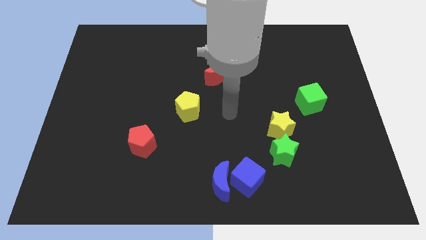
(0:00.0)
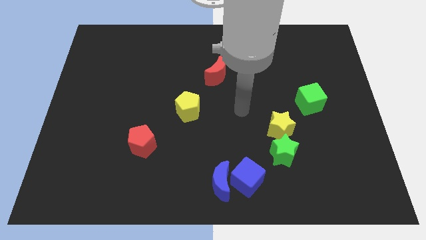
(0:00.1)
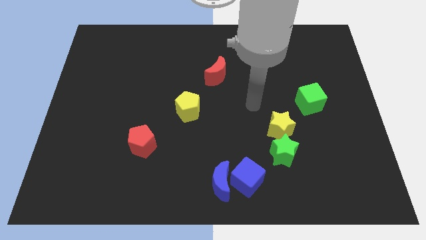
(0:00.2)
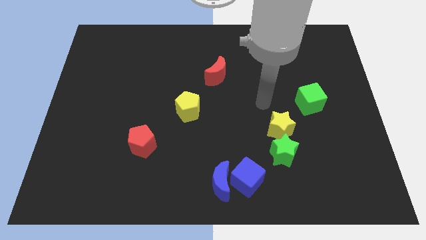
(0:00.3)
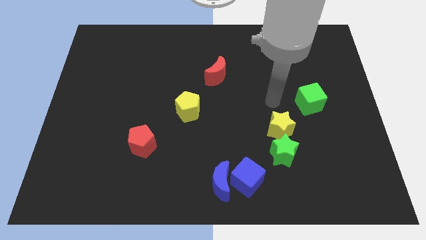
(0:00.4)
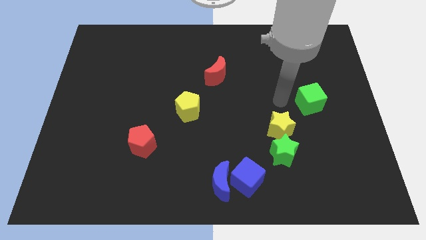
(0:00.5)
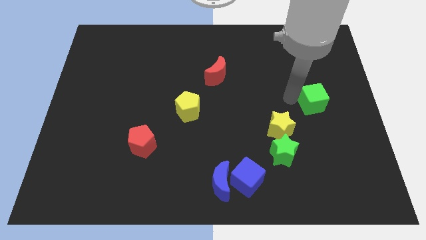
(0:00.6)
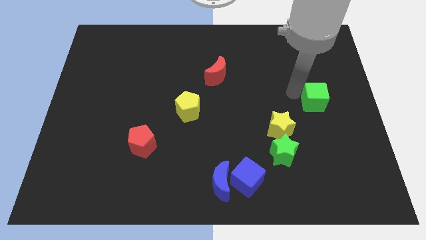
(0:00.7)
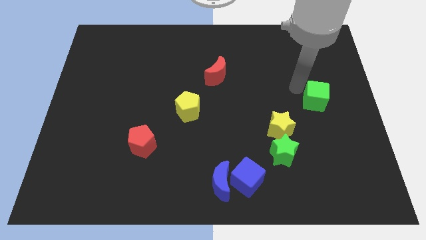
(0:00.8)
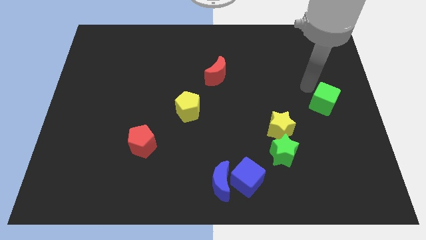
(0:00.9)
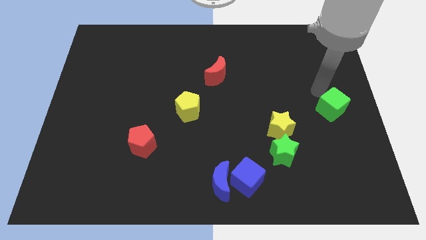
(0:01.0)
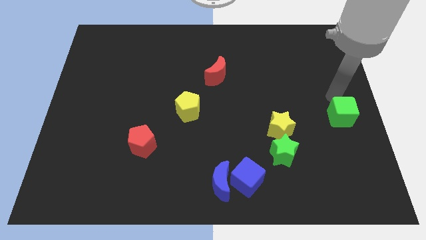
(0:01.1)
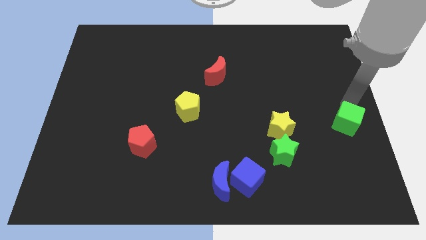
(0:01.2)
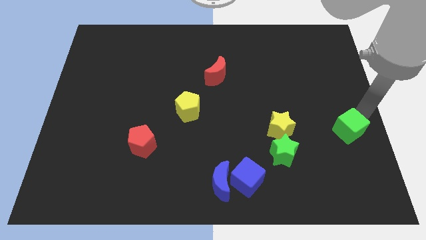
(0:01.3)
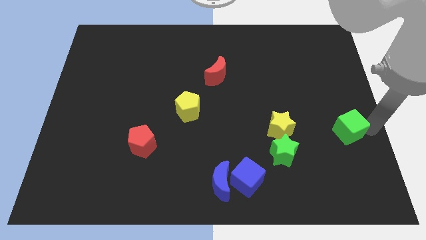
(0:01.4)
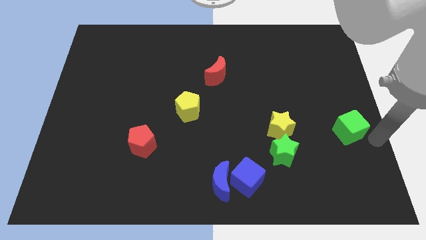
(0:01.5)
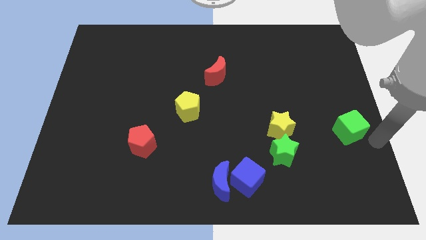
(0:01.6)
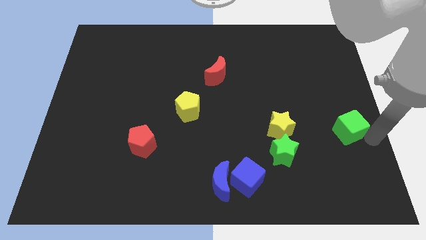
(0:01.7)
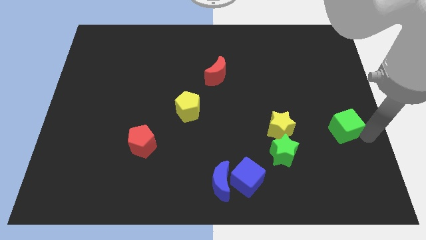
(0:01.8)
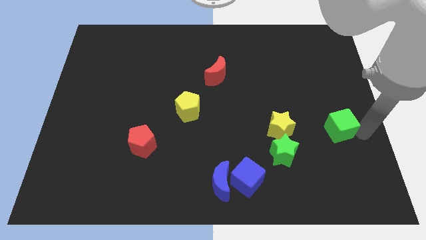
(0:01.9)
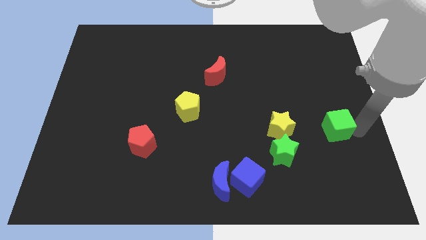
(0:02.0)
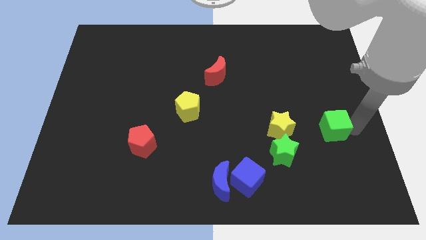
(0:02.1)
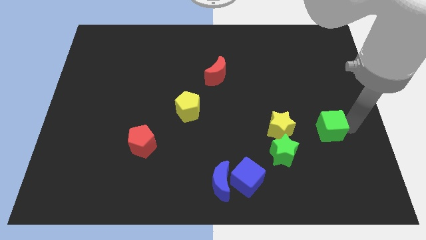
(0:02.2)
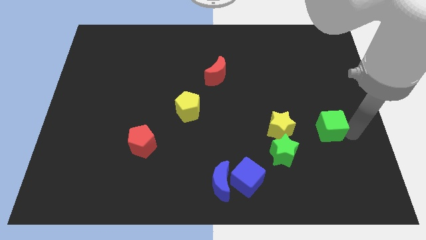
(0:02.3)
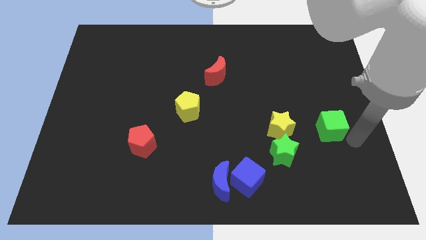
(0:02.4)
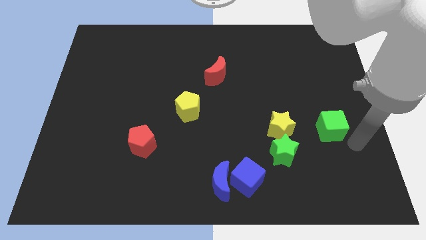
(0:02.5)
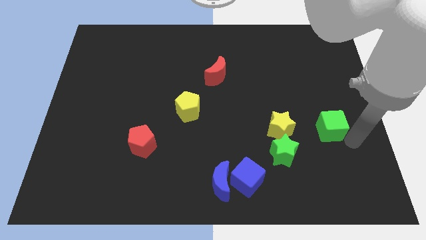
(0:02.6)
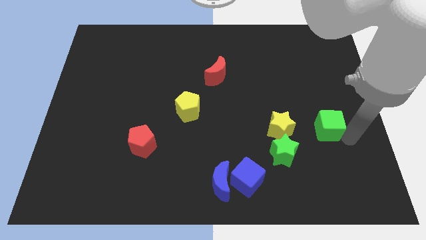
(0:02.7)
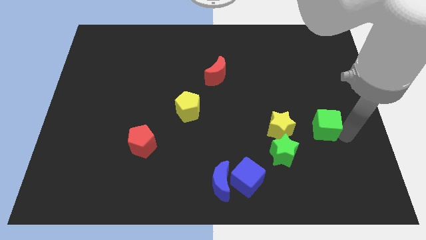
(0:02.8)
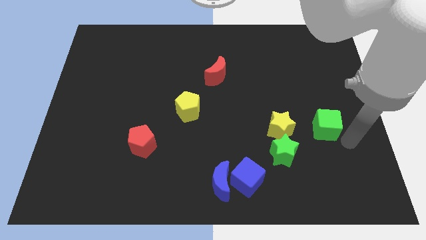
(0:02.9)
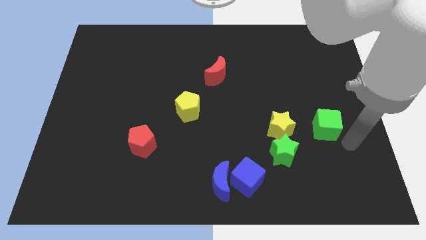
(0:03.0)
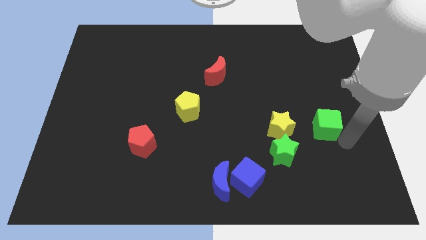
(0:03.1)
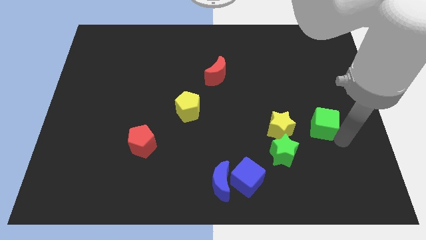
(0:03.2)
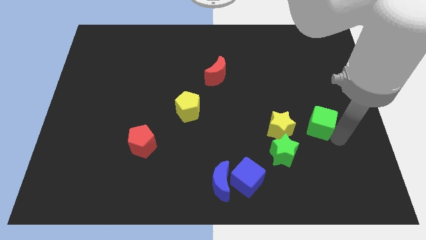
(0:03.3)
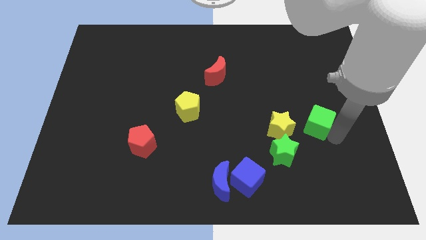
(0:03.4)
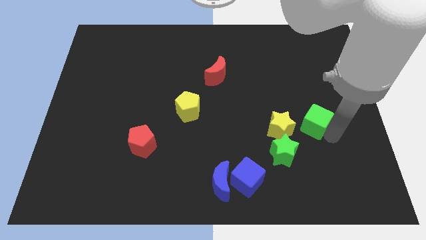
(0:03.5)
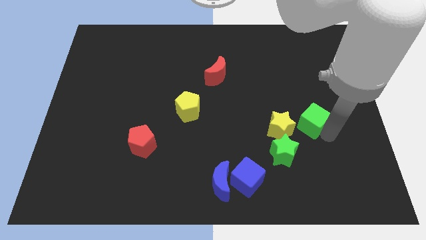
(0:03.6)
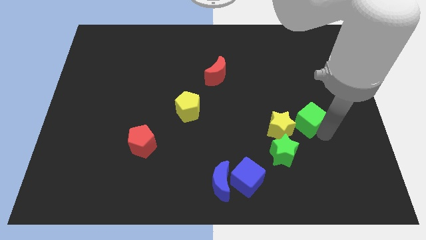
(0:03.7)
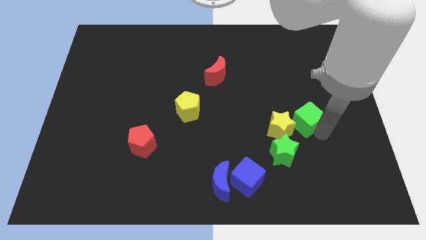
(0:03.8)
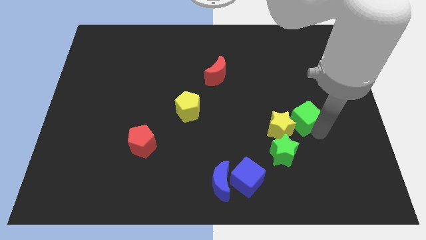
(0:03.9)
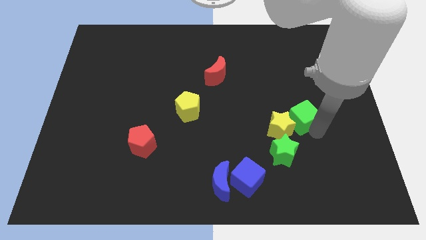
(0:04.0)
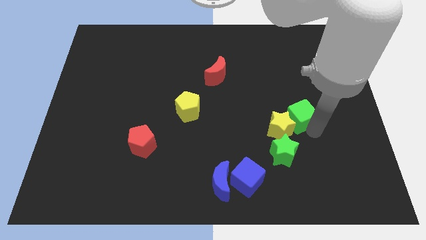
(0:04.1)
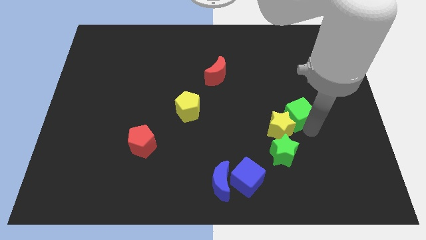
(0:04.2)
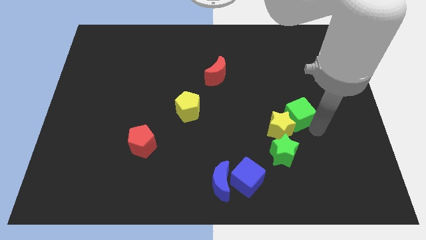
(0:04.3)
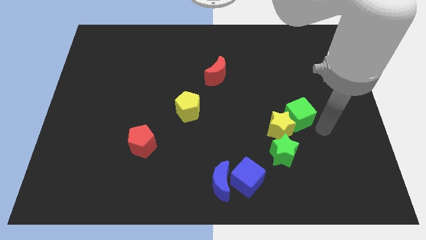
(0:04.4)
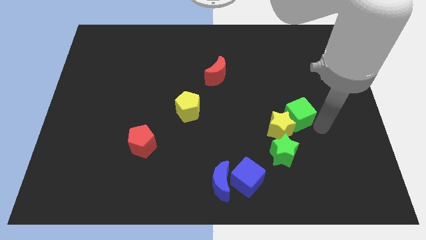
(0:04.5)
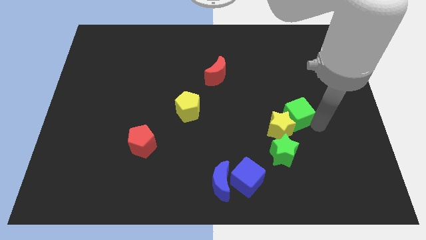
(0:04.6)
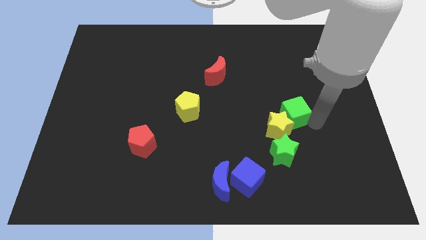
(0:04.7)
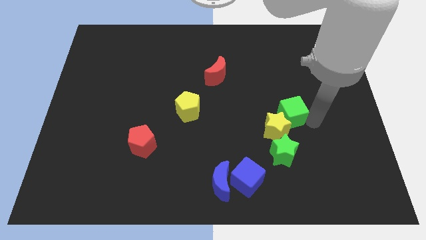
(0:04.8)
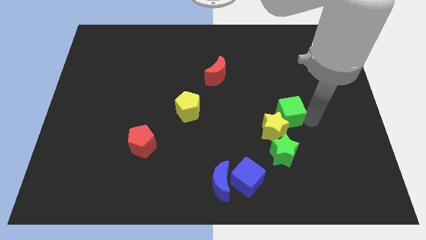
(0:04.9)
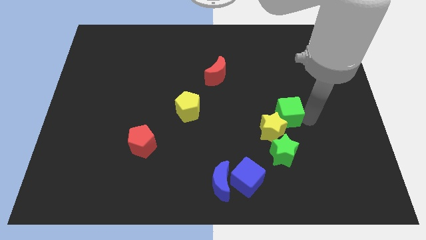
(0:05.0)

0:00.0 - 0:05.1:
push the green cube somewhat diagonally downwards and left

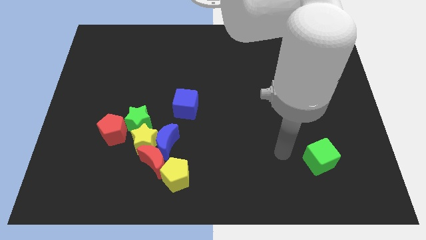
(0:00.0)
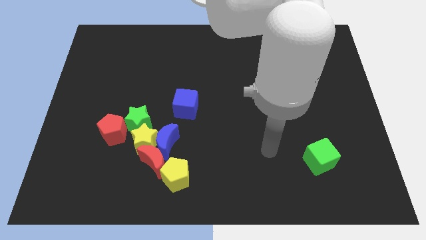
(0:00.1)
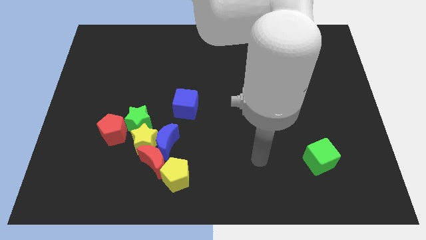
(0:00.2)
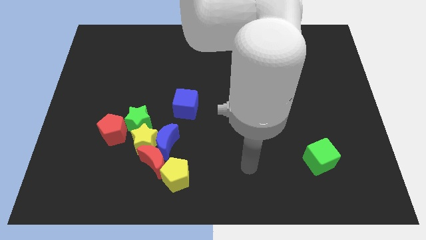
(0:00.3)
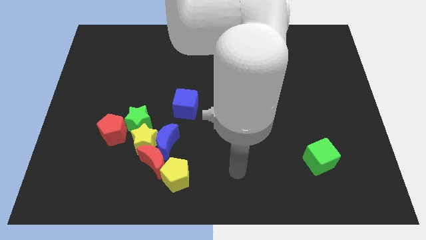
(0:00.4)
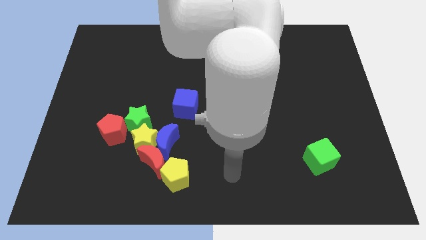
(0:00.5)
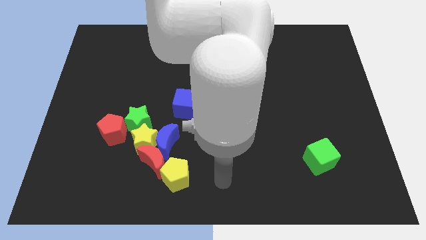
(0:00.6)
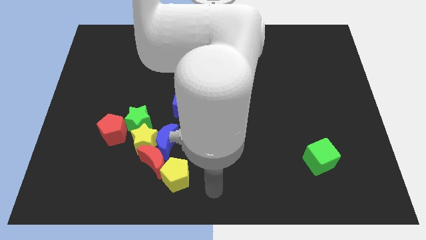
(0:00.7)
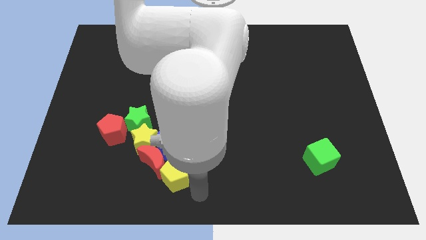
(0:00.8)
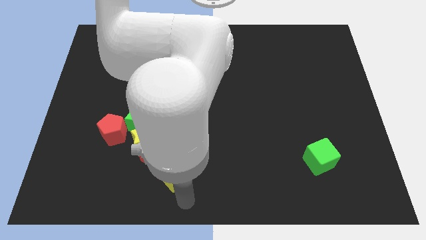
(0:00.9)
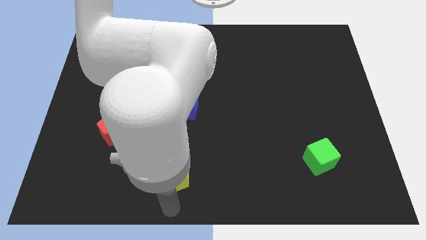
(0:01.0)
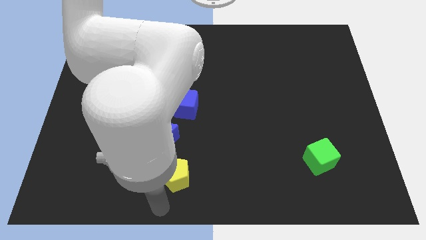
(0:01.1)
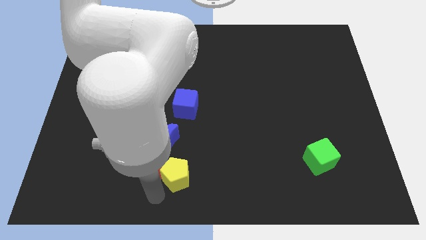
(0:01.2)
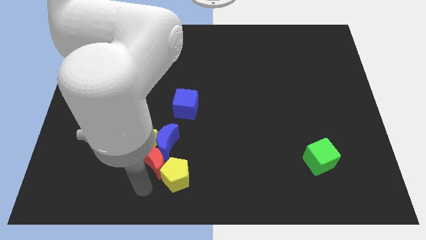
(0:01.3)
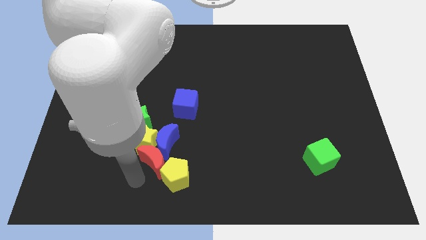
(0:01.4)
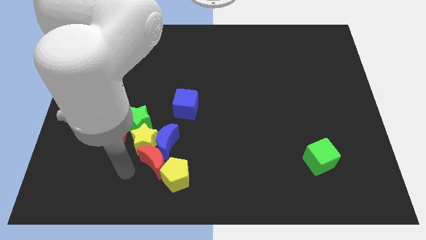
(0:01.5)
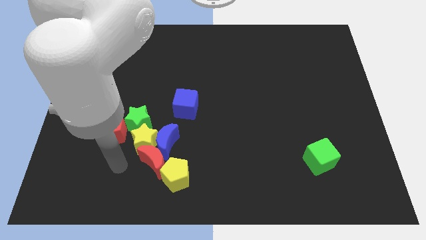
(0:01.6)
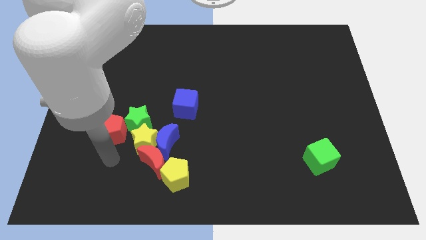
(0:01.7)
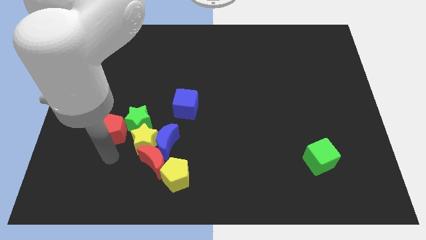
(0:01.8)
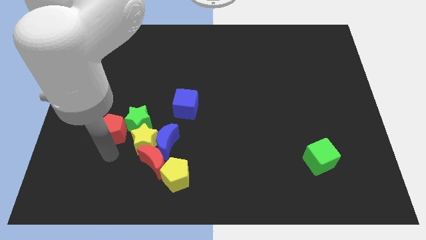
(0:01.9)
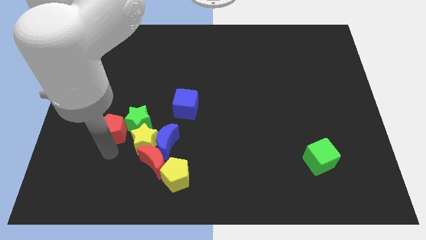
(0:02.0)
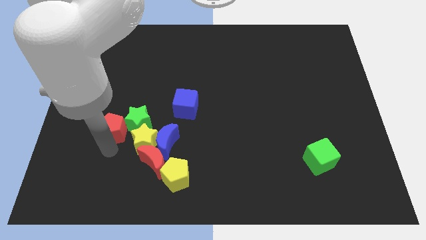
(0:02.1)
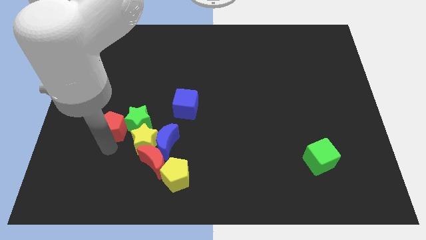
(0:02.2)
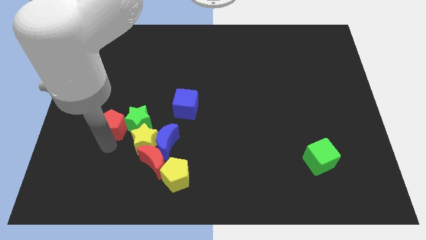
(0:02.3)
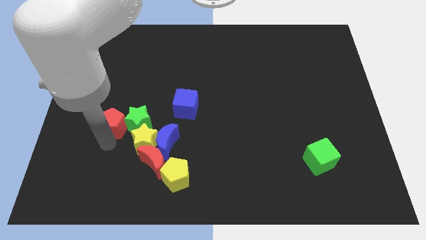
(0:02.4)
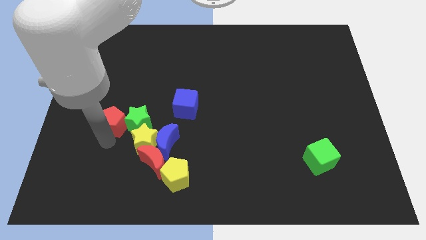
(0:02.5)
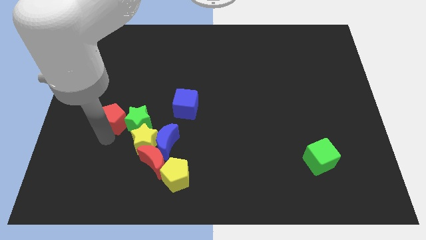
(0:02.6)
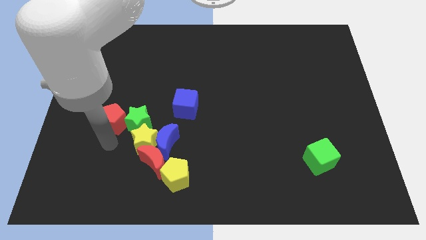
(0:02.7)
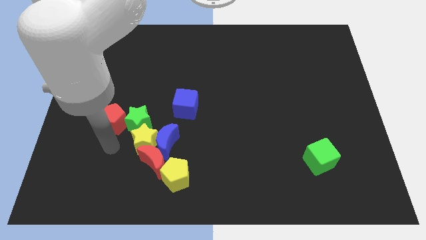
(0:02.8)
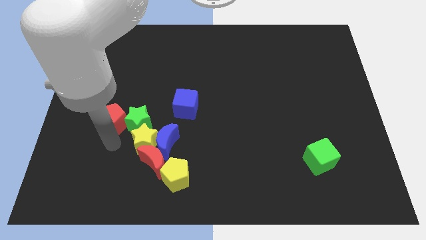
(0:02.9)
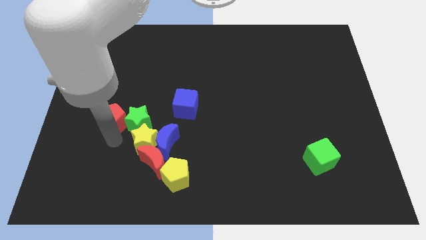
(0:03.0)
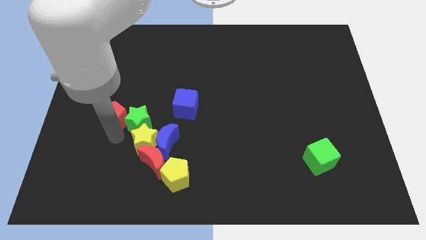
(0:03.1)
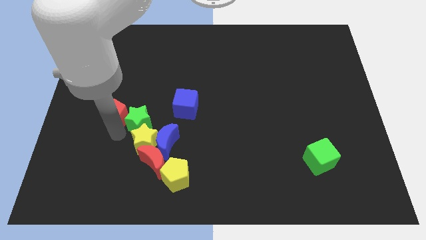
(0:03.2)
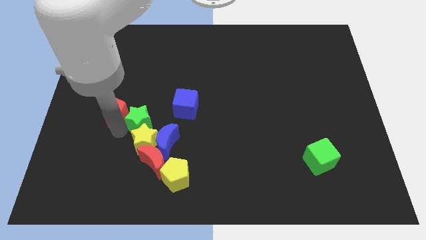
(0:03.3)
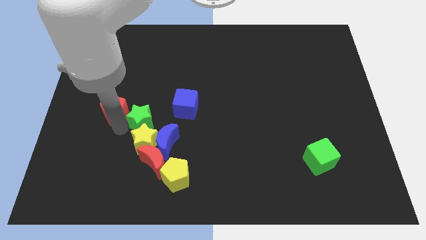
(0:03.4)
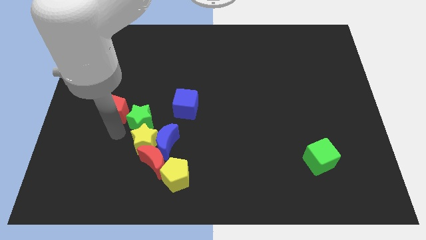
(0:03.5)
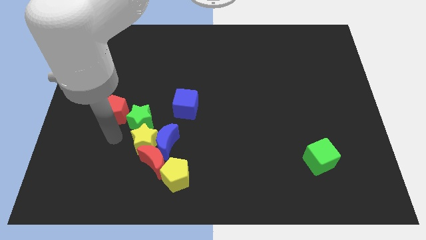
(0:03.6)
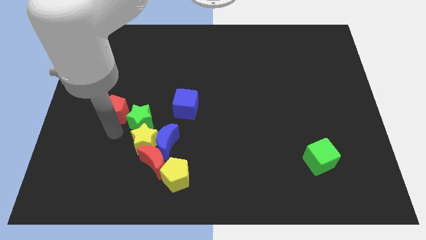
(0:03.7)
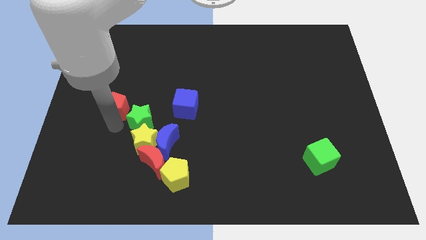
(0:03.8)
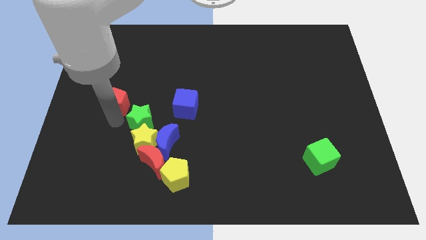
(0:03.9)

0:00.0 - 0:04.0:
slightly push the red pentagon upwards
